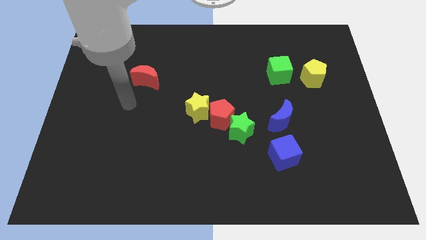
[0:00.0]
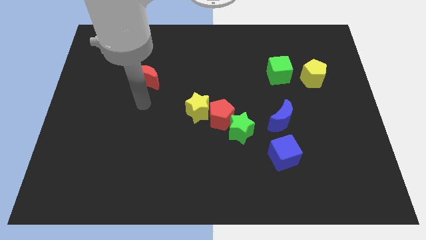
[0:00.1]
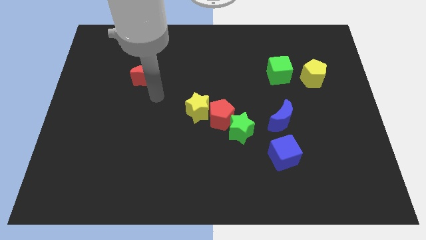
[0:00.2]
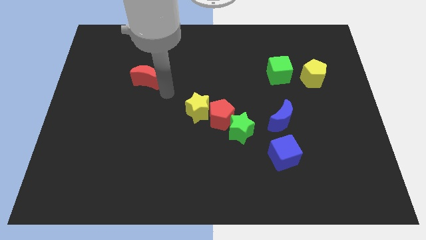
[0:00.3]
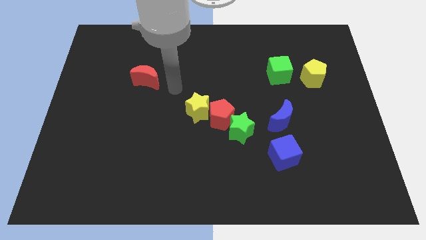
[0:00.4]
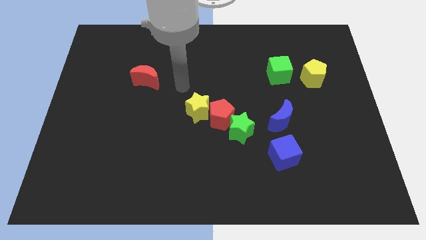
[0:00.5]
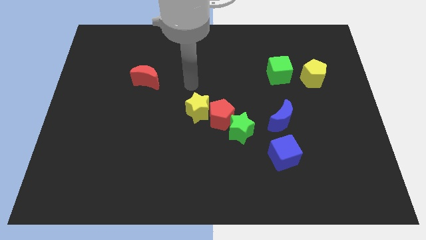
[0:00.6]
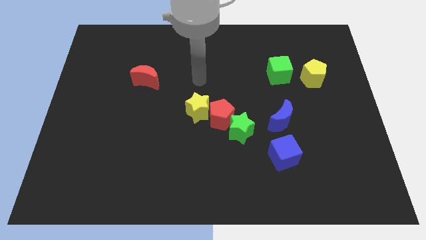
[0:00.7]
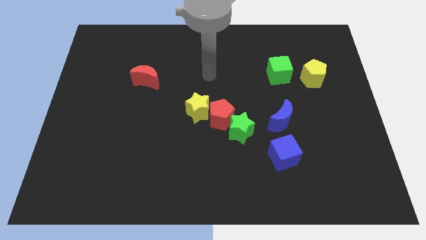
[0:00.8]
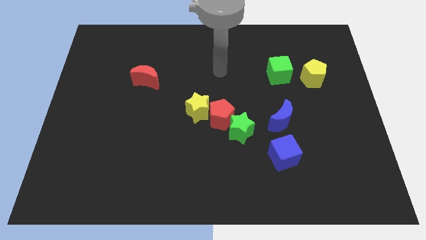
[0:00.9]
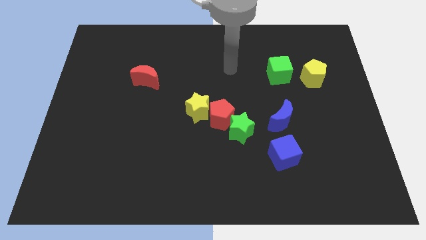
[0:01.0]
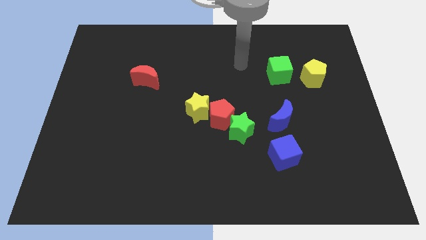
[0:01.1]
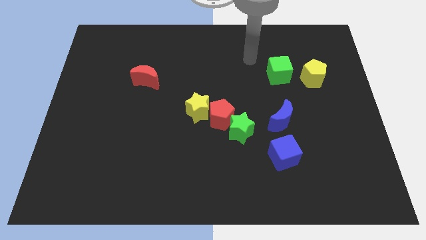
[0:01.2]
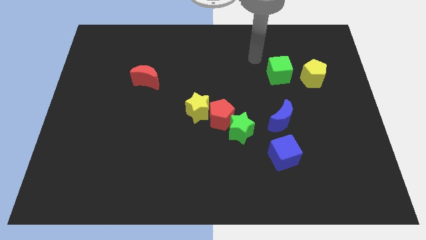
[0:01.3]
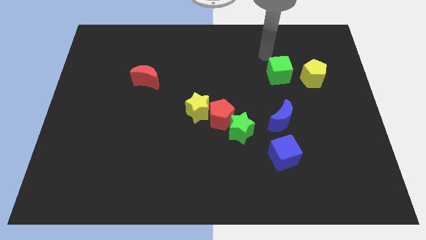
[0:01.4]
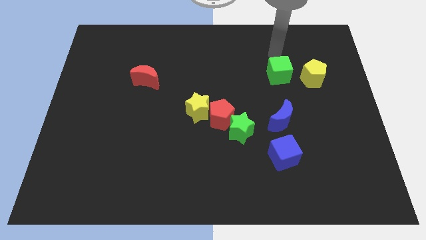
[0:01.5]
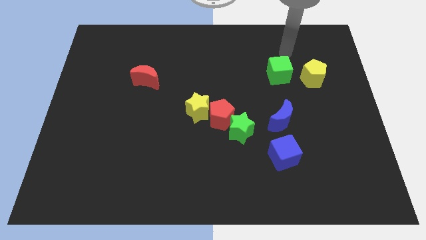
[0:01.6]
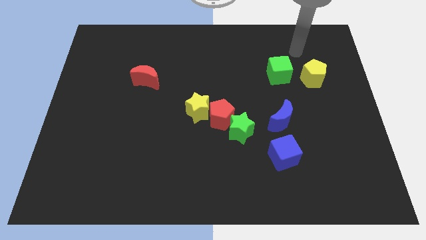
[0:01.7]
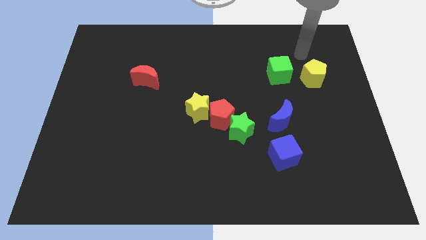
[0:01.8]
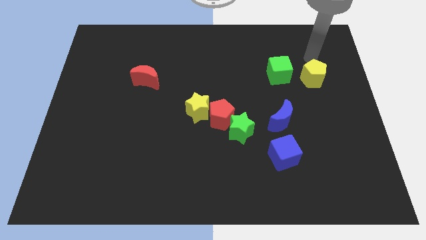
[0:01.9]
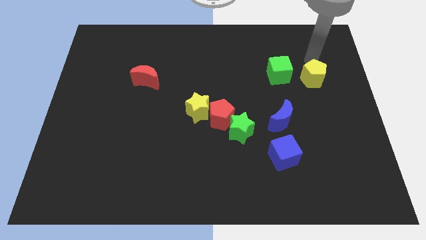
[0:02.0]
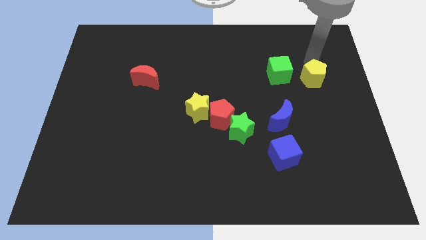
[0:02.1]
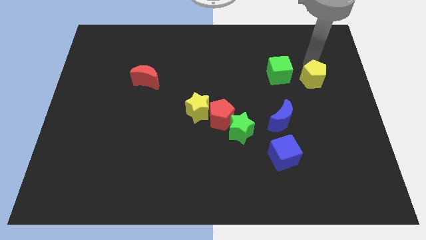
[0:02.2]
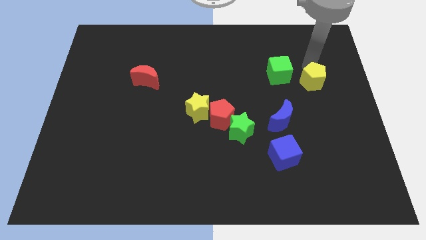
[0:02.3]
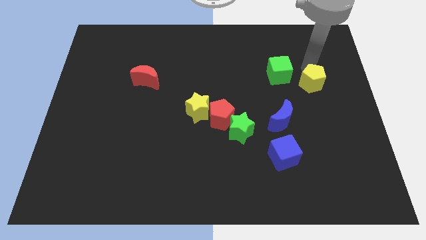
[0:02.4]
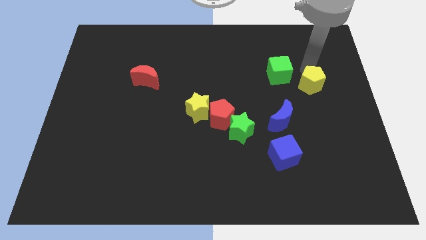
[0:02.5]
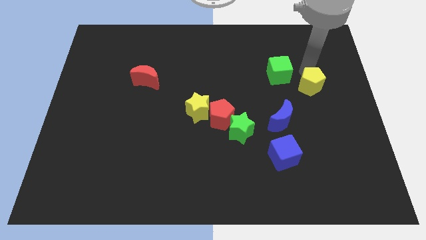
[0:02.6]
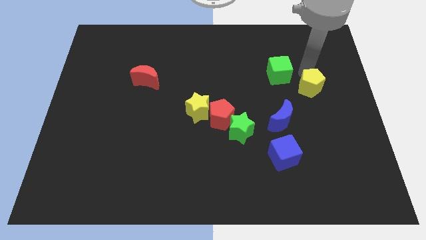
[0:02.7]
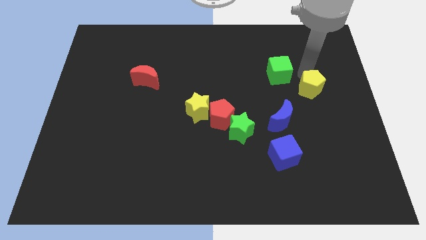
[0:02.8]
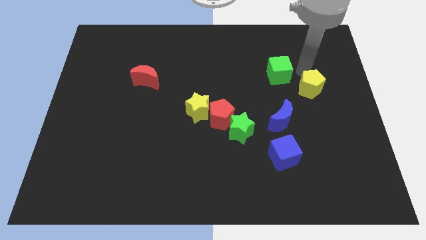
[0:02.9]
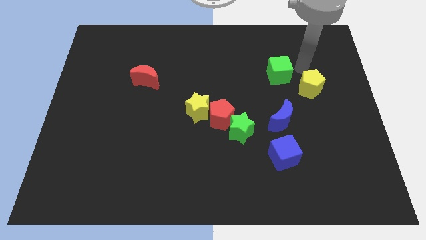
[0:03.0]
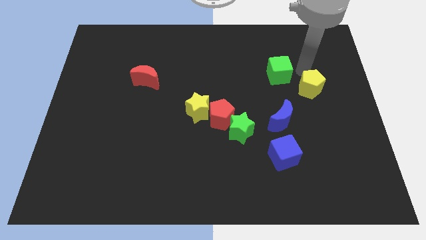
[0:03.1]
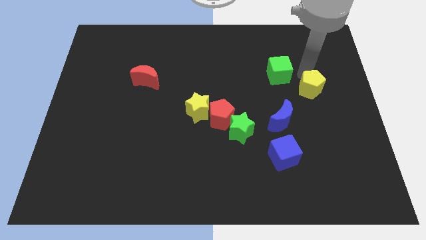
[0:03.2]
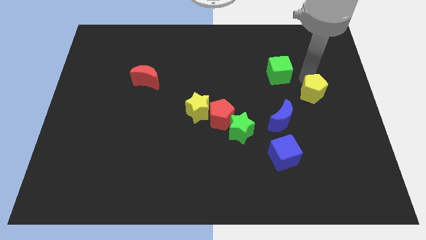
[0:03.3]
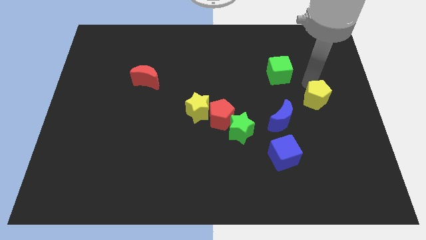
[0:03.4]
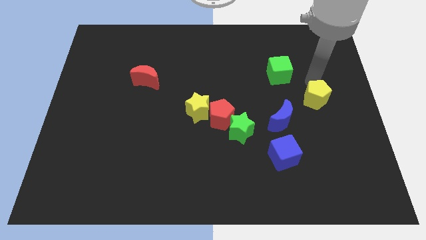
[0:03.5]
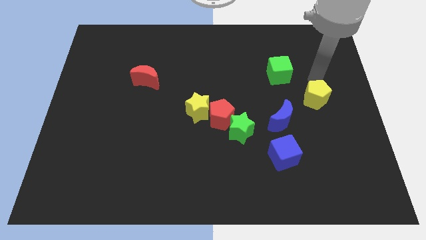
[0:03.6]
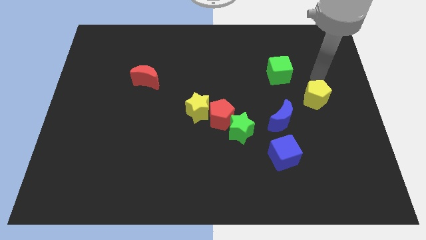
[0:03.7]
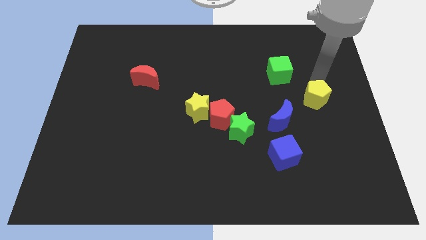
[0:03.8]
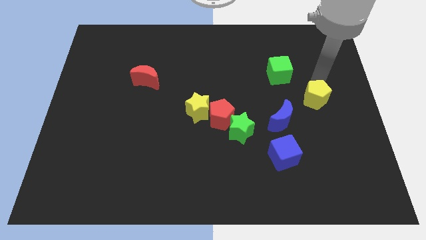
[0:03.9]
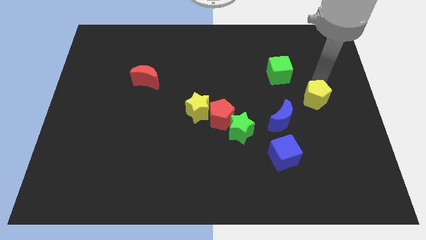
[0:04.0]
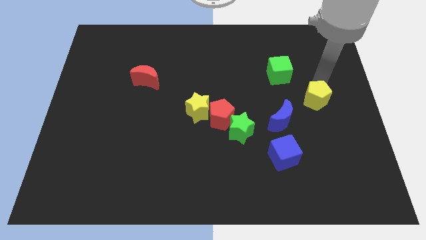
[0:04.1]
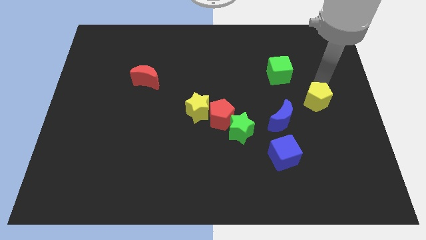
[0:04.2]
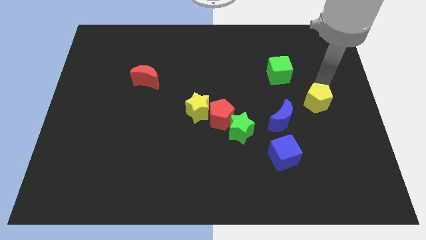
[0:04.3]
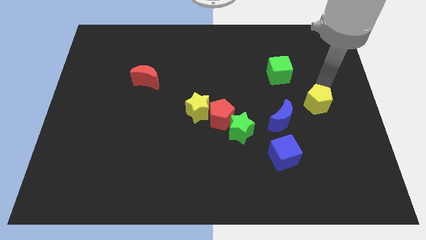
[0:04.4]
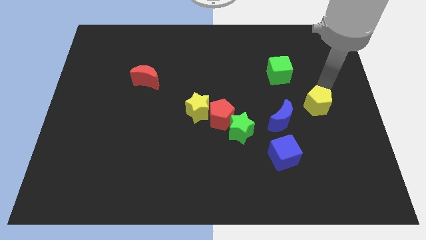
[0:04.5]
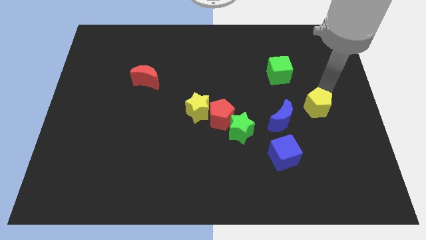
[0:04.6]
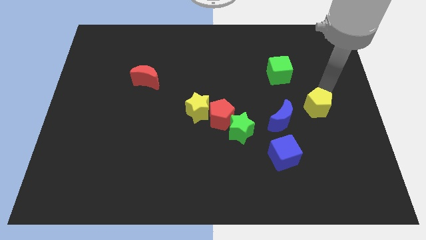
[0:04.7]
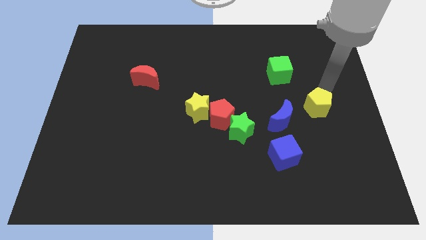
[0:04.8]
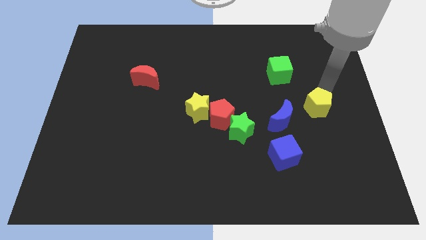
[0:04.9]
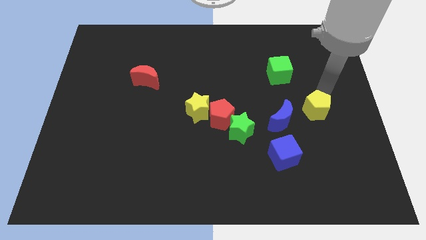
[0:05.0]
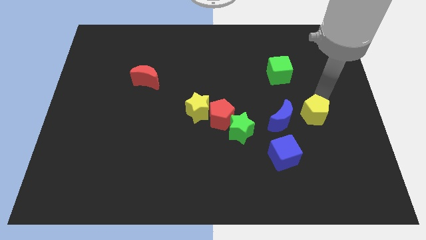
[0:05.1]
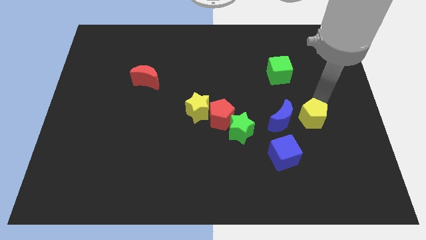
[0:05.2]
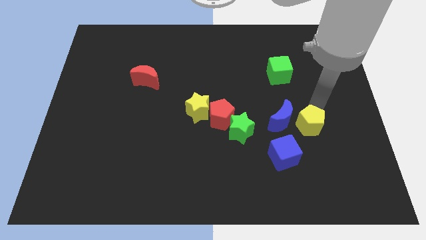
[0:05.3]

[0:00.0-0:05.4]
put the yellow pentagon diagonally down and to the right of the blue moon

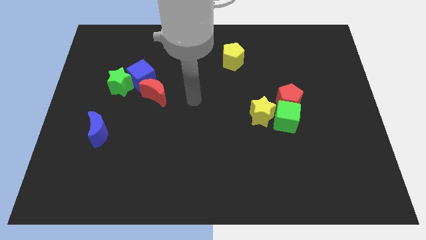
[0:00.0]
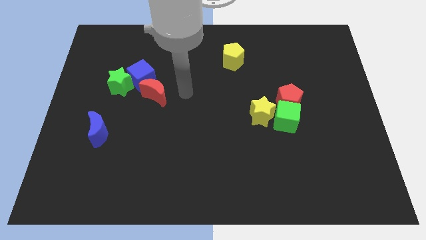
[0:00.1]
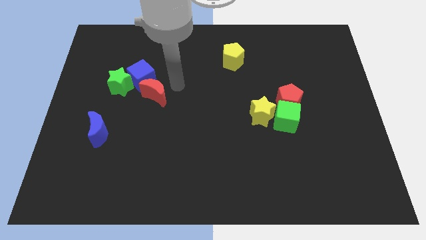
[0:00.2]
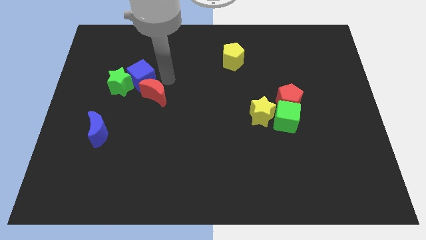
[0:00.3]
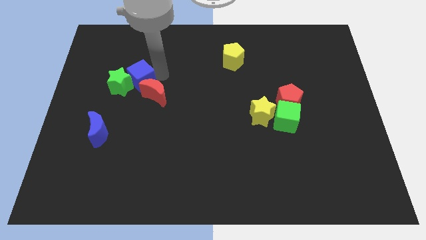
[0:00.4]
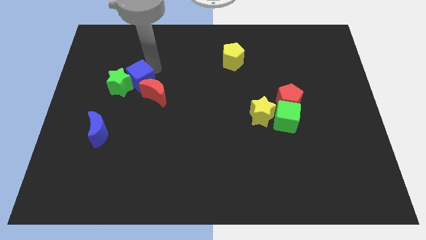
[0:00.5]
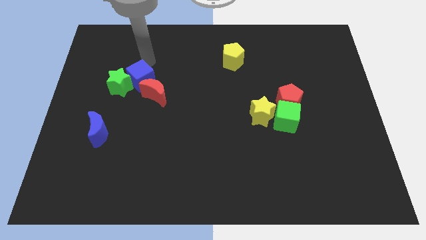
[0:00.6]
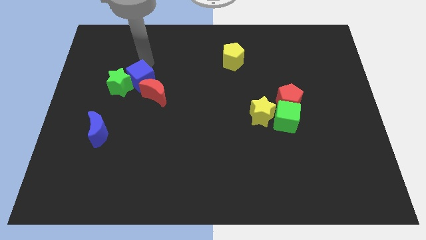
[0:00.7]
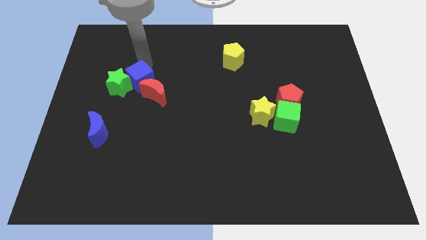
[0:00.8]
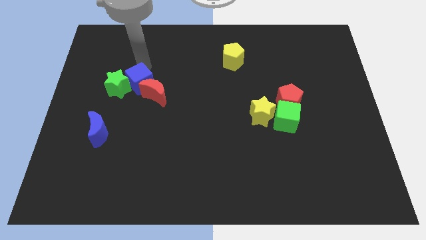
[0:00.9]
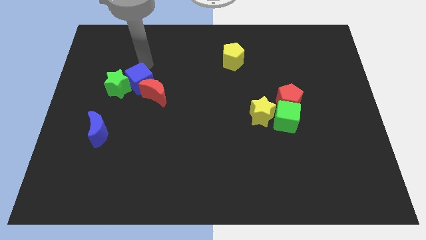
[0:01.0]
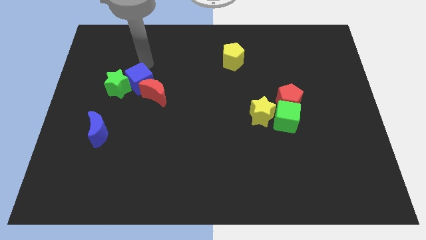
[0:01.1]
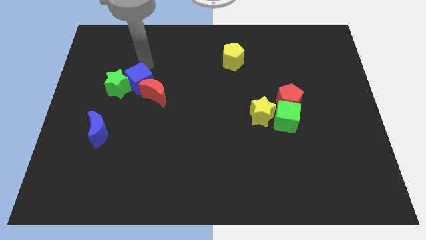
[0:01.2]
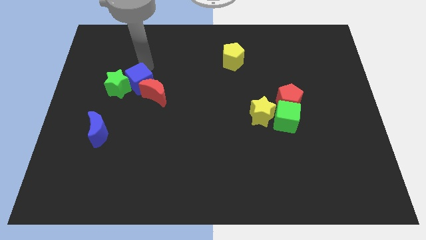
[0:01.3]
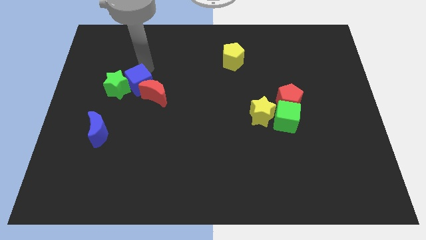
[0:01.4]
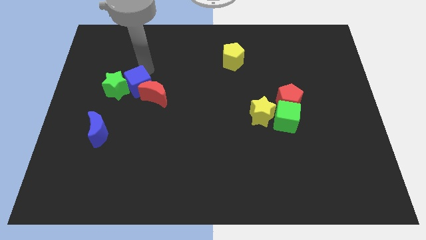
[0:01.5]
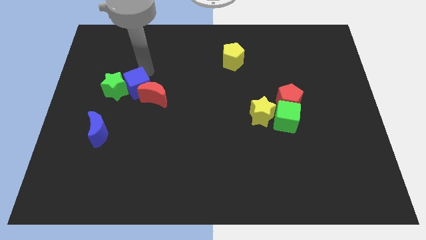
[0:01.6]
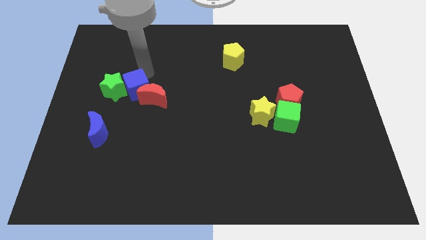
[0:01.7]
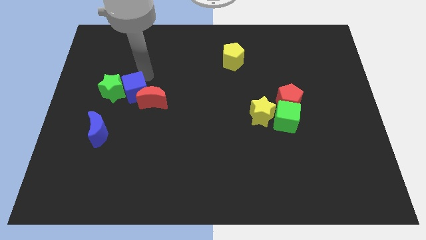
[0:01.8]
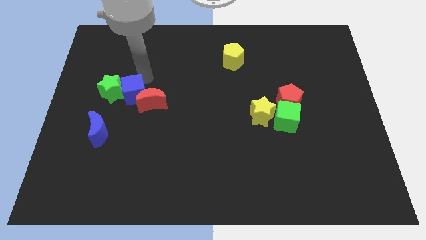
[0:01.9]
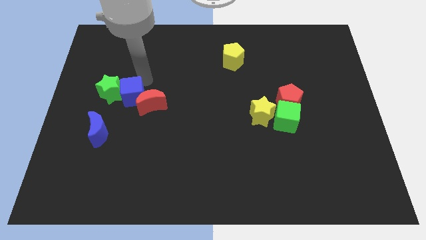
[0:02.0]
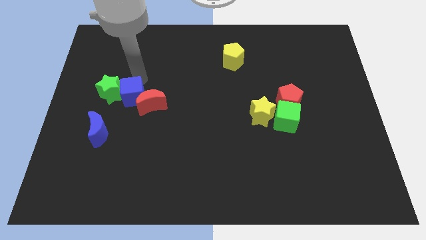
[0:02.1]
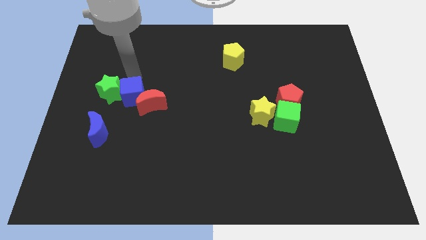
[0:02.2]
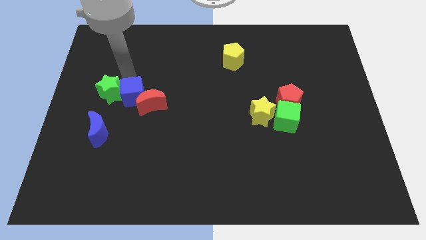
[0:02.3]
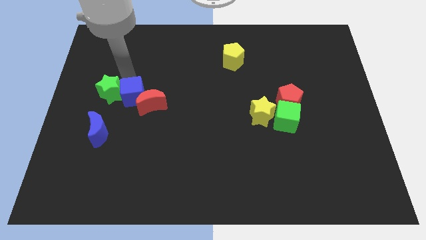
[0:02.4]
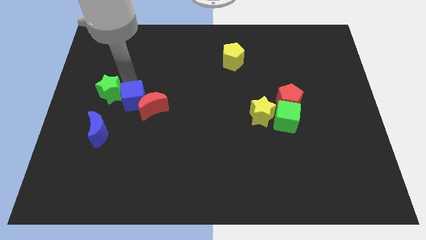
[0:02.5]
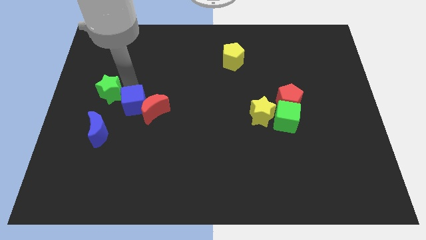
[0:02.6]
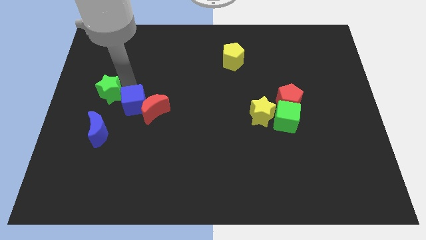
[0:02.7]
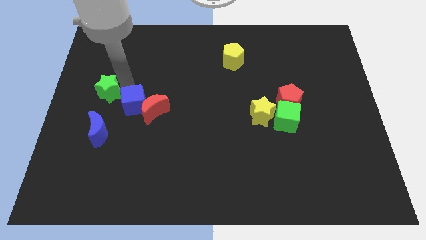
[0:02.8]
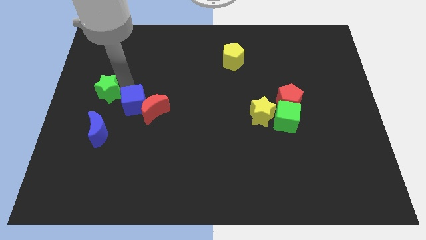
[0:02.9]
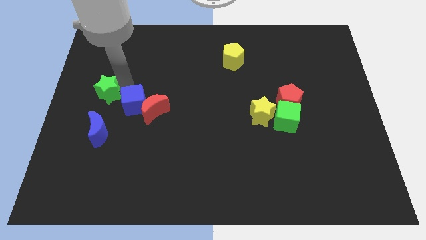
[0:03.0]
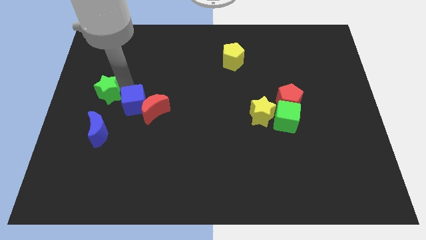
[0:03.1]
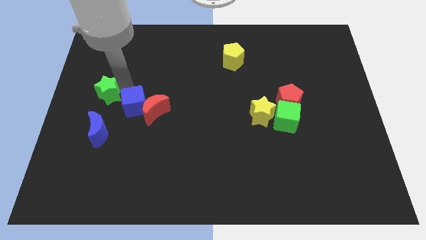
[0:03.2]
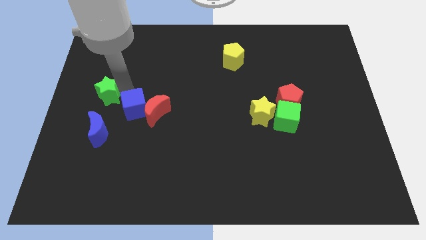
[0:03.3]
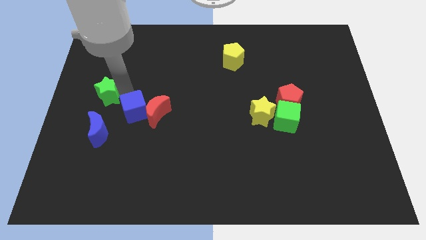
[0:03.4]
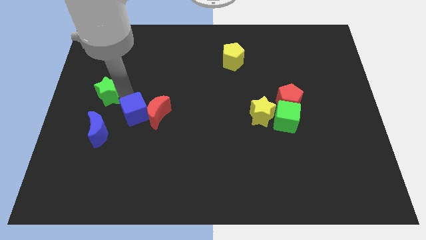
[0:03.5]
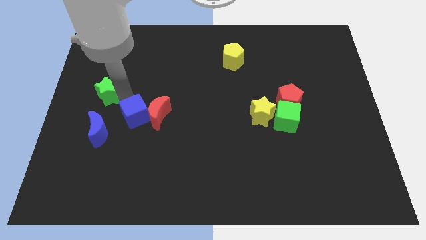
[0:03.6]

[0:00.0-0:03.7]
put the blue cube right of the blue moon
